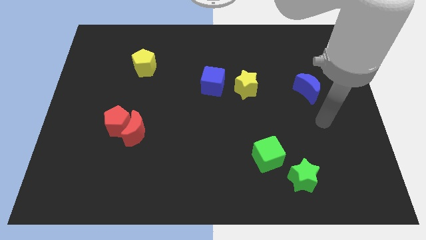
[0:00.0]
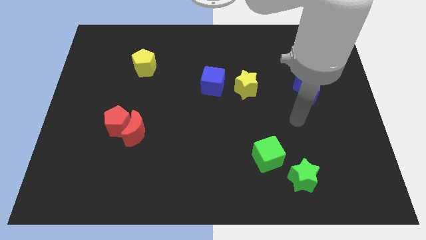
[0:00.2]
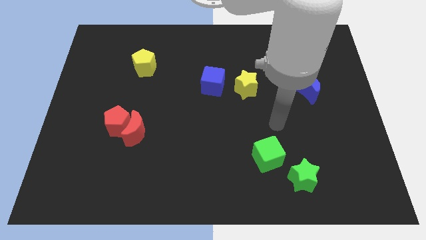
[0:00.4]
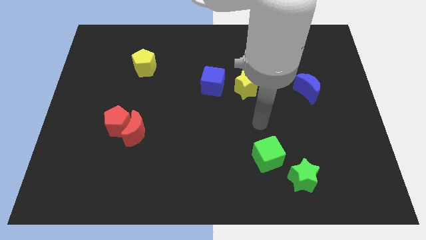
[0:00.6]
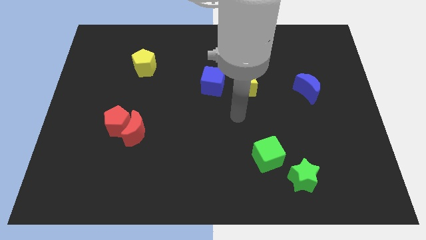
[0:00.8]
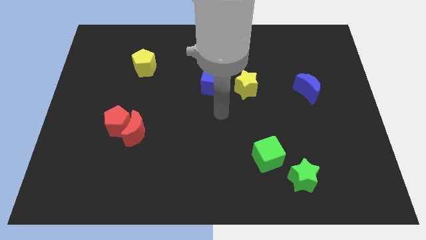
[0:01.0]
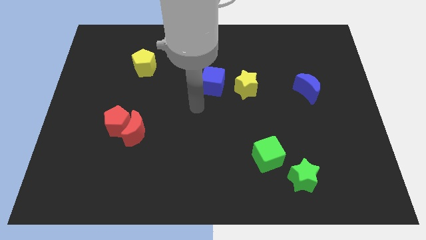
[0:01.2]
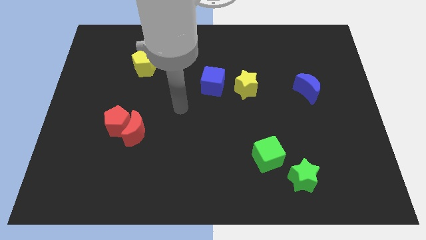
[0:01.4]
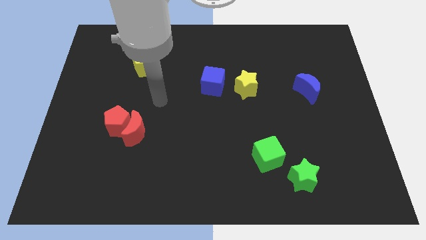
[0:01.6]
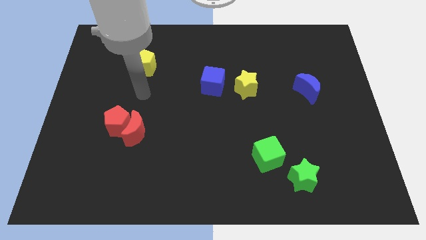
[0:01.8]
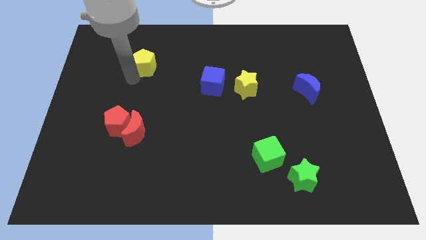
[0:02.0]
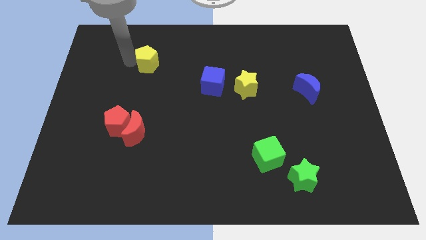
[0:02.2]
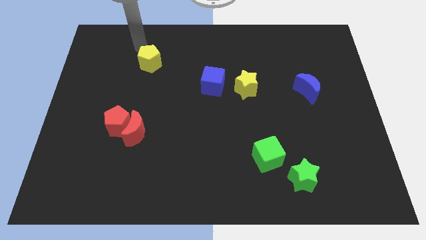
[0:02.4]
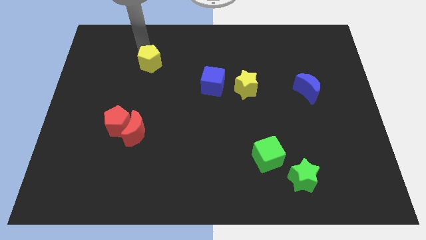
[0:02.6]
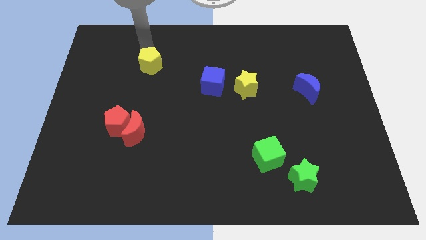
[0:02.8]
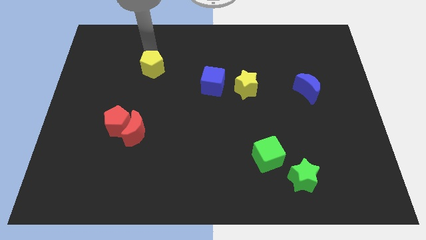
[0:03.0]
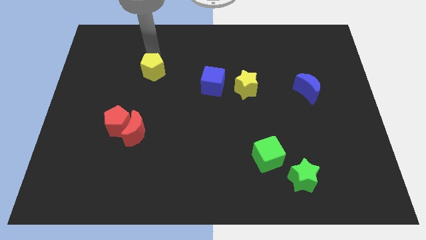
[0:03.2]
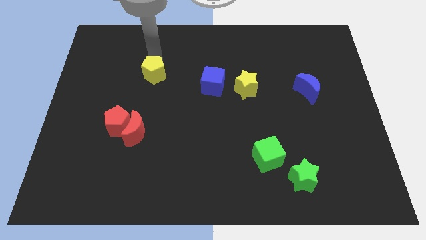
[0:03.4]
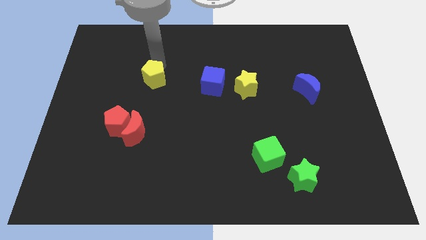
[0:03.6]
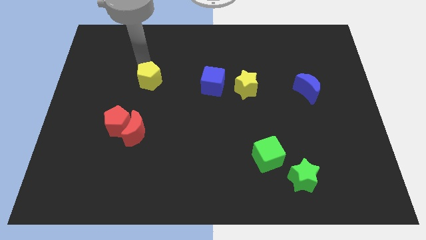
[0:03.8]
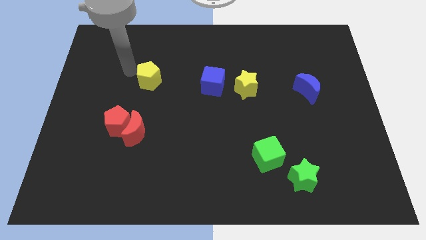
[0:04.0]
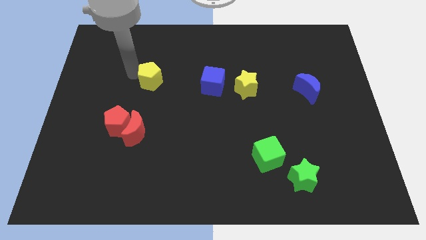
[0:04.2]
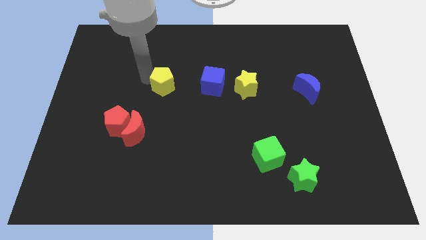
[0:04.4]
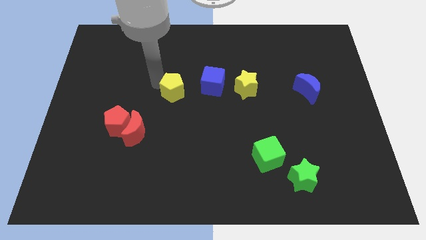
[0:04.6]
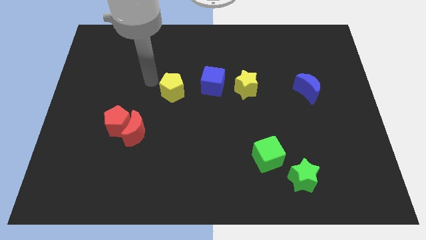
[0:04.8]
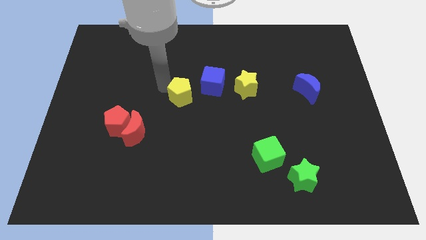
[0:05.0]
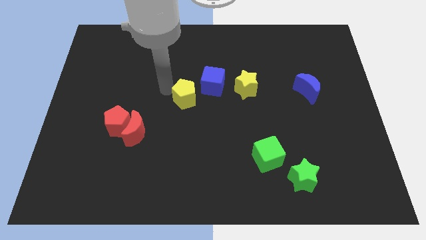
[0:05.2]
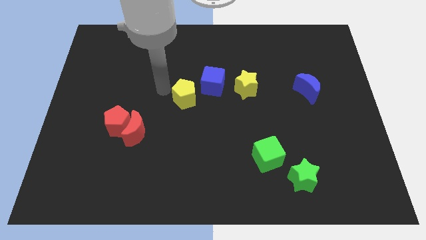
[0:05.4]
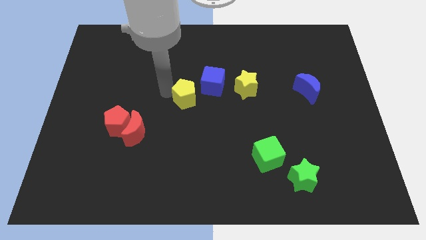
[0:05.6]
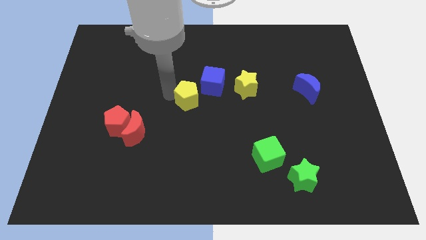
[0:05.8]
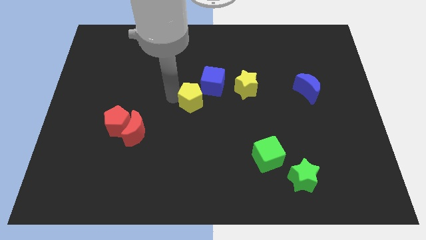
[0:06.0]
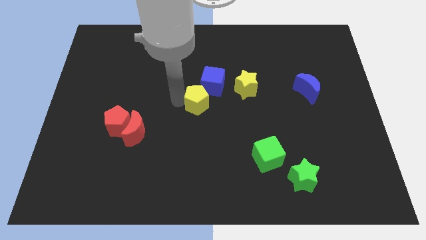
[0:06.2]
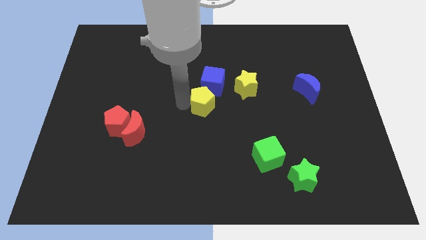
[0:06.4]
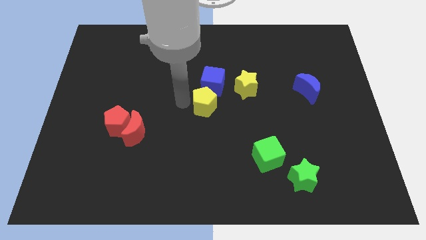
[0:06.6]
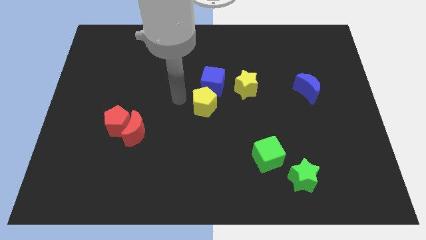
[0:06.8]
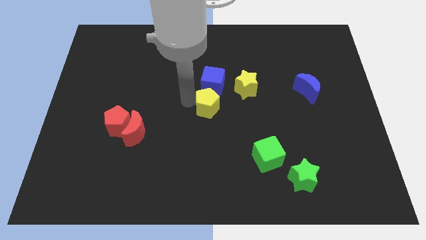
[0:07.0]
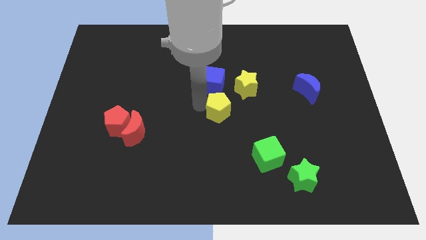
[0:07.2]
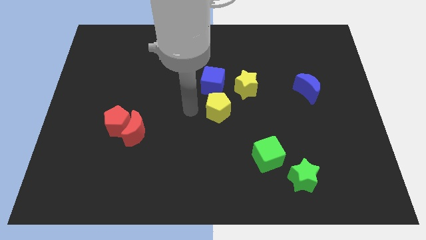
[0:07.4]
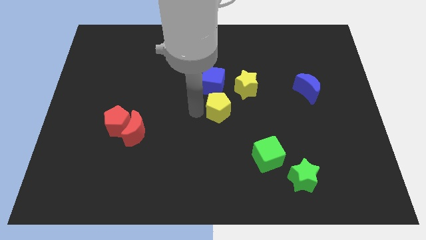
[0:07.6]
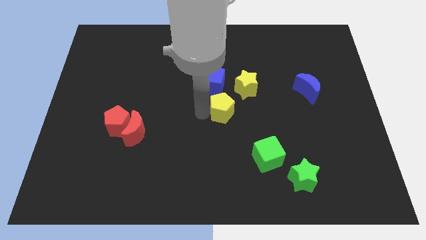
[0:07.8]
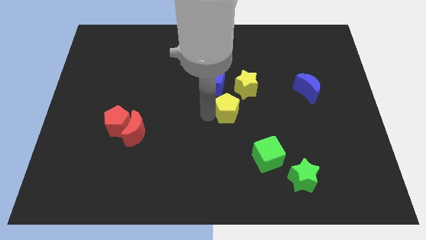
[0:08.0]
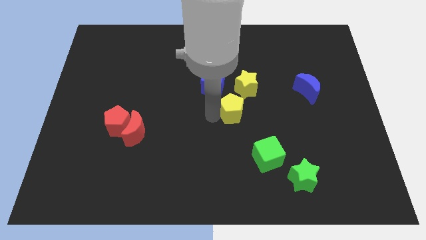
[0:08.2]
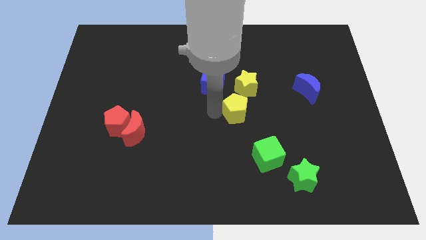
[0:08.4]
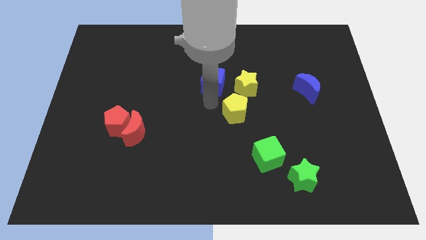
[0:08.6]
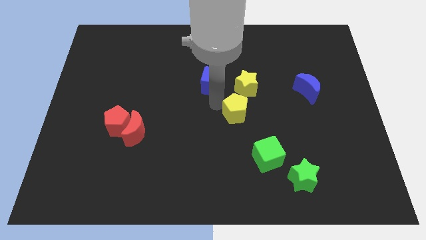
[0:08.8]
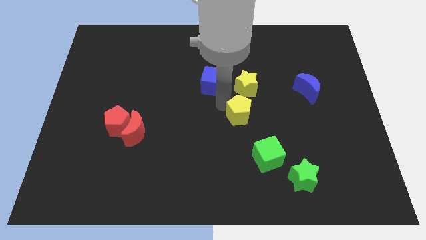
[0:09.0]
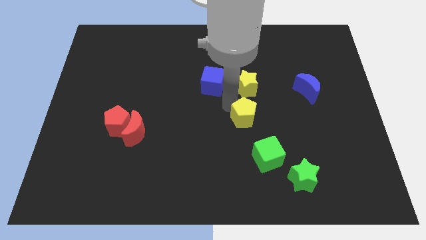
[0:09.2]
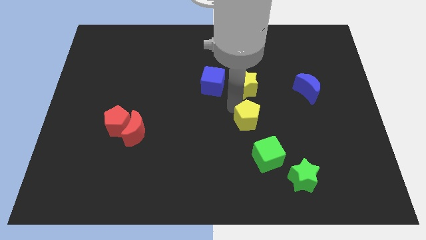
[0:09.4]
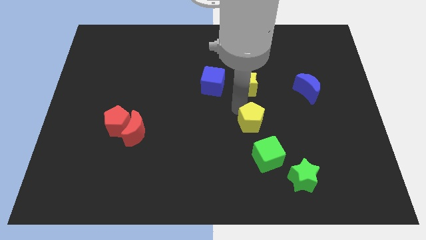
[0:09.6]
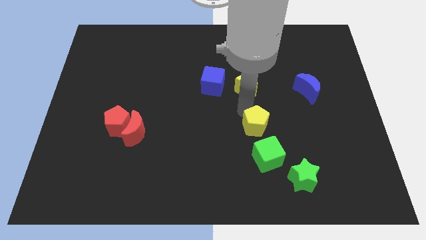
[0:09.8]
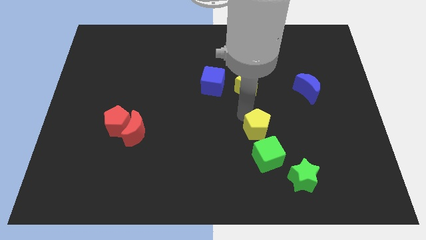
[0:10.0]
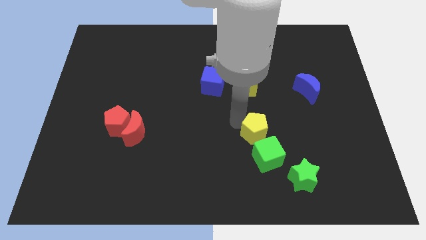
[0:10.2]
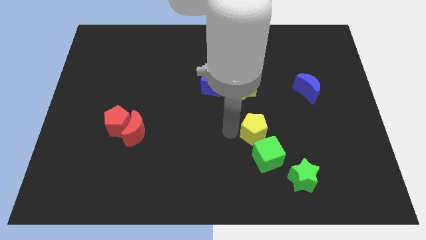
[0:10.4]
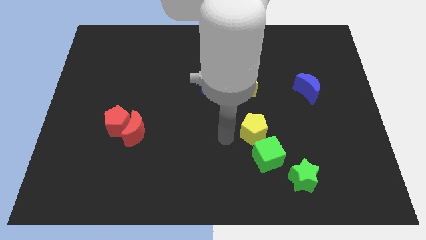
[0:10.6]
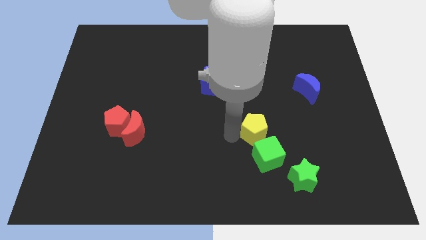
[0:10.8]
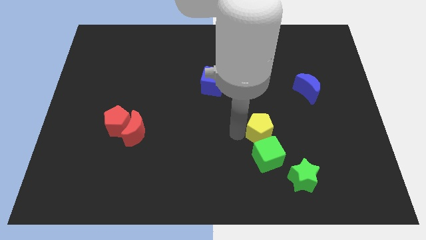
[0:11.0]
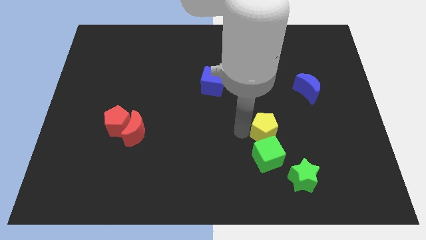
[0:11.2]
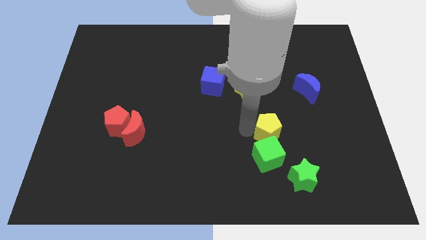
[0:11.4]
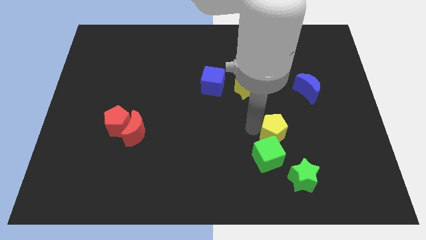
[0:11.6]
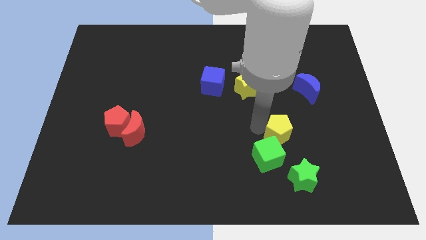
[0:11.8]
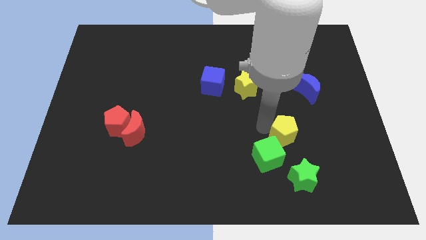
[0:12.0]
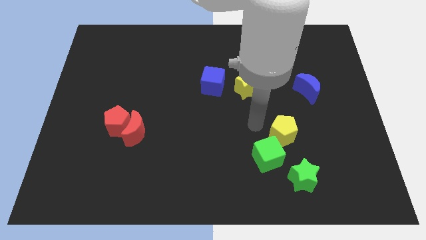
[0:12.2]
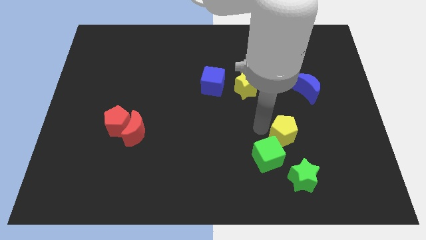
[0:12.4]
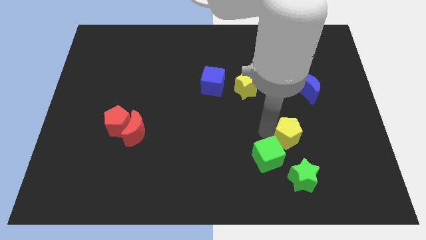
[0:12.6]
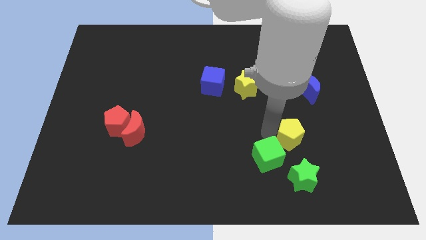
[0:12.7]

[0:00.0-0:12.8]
put the yellow pentagon to the right of the green cube

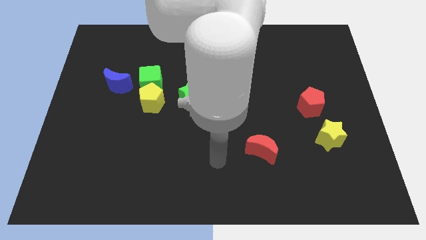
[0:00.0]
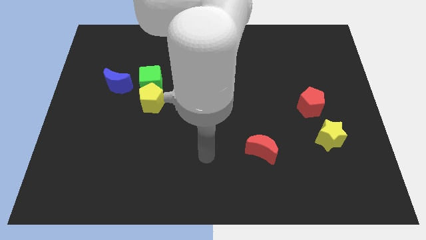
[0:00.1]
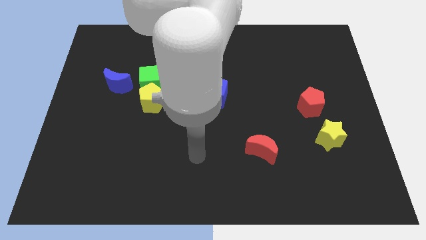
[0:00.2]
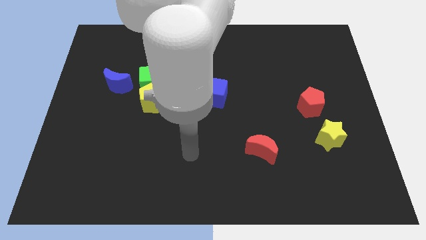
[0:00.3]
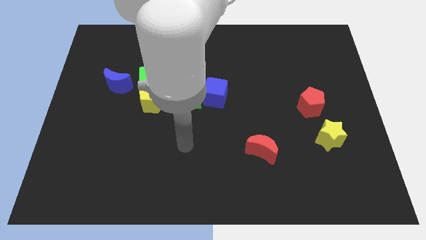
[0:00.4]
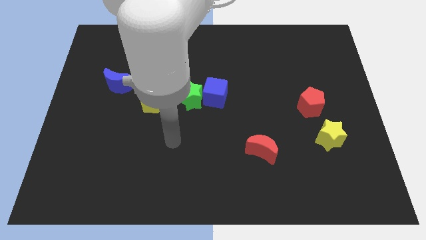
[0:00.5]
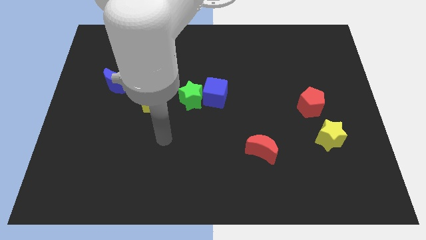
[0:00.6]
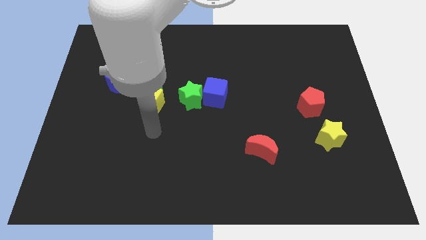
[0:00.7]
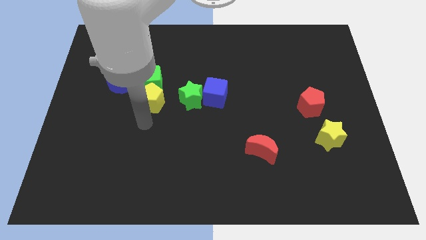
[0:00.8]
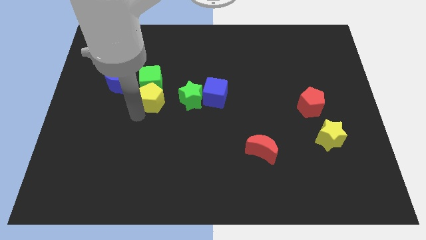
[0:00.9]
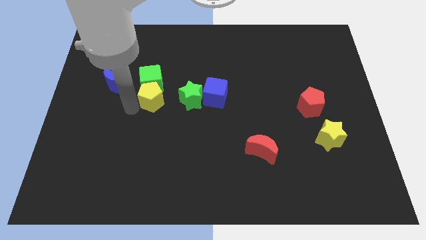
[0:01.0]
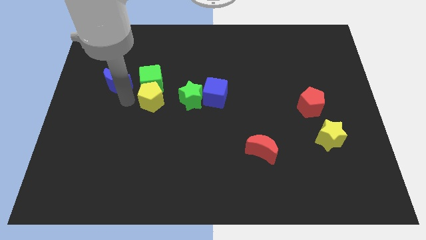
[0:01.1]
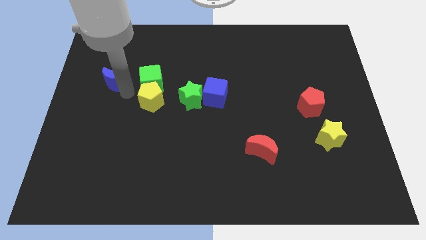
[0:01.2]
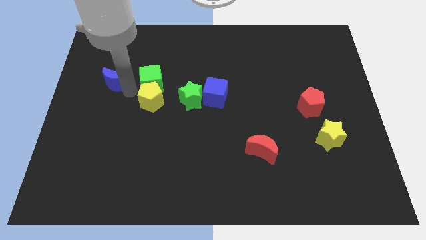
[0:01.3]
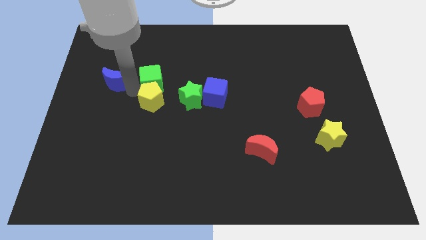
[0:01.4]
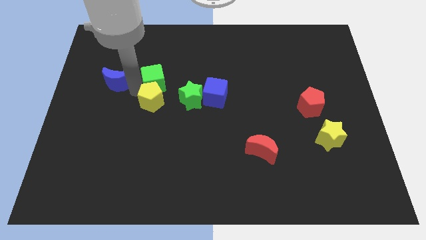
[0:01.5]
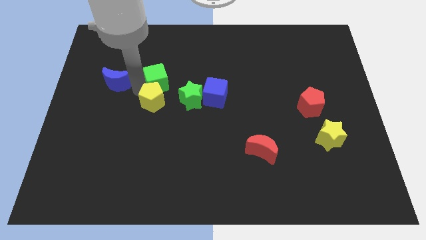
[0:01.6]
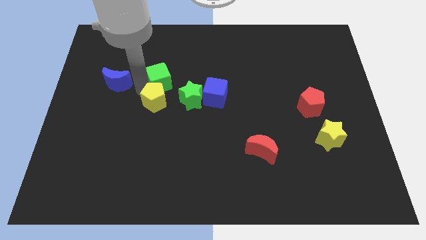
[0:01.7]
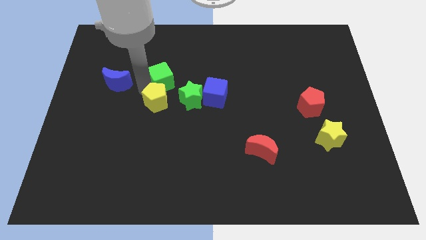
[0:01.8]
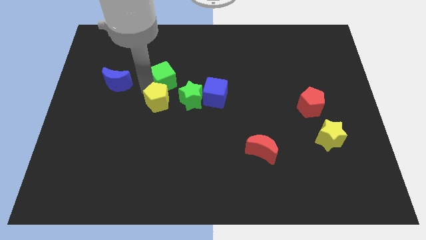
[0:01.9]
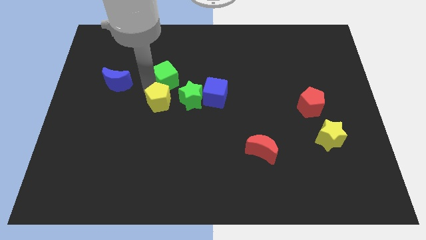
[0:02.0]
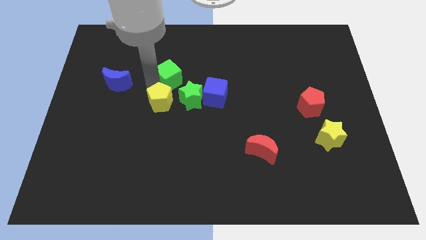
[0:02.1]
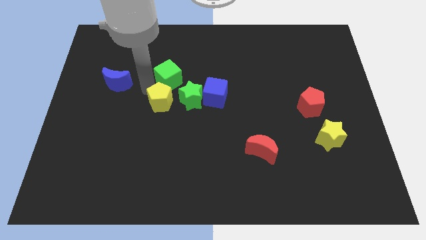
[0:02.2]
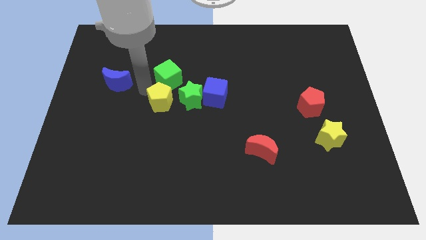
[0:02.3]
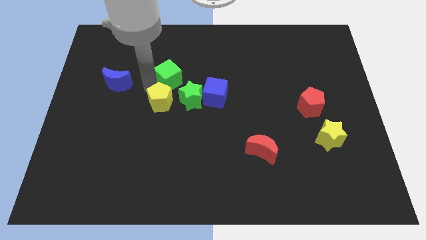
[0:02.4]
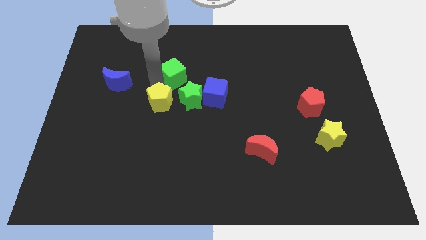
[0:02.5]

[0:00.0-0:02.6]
push the green cube above the green star
